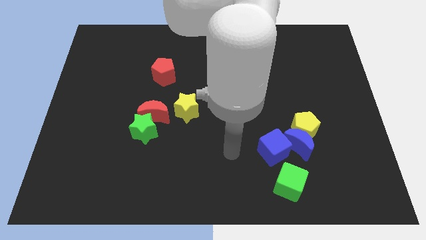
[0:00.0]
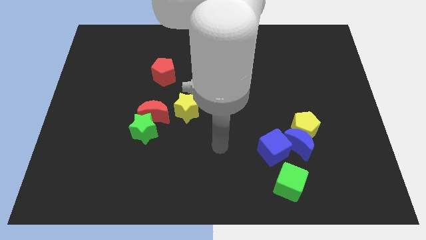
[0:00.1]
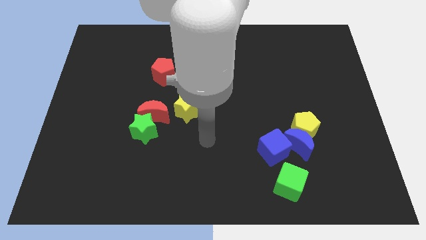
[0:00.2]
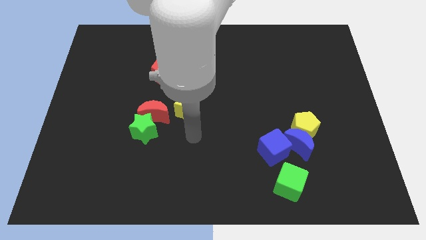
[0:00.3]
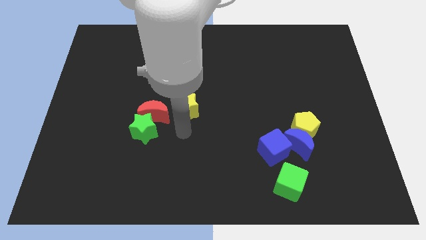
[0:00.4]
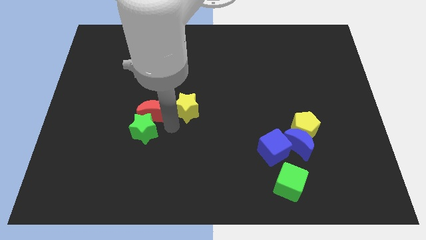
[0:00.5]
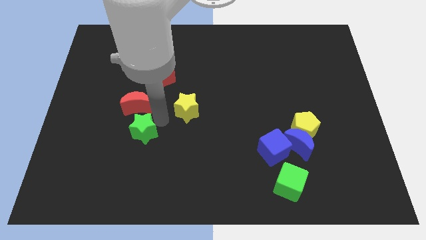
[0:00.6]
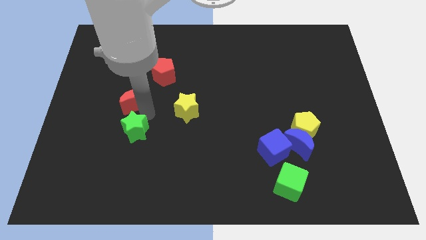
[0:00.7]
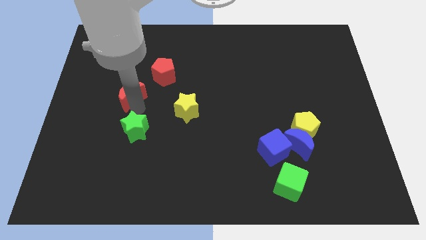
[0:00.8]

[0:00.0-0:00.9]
pull the green star apart from the red moon

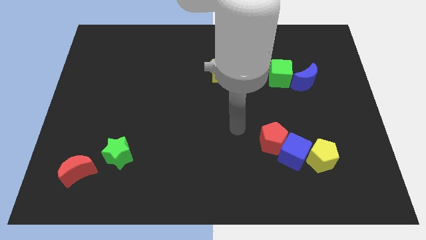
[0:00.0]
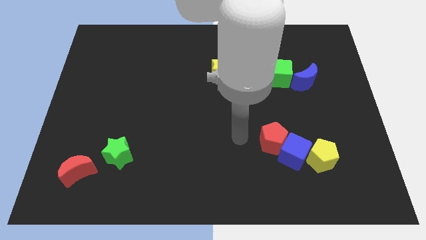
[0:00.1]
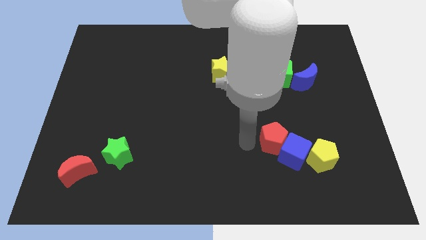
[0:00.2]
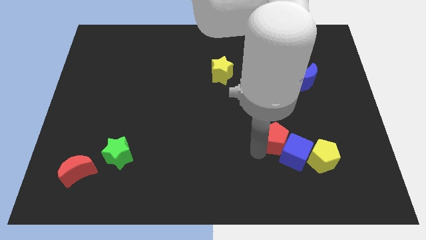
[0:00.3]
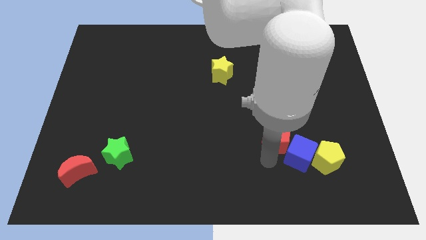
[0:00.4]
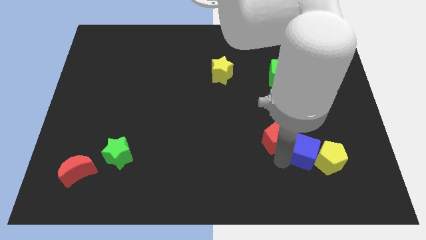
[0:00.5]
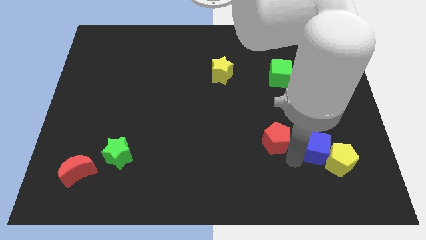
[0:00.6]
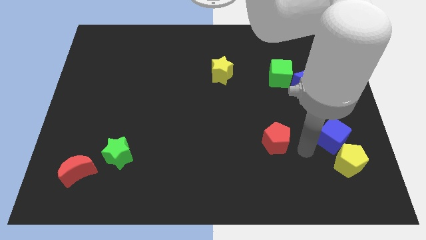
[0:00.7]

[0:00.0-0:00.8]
move the red pentagon away from the blue cube

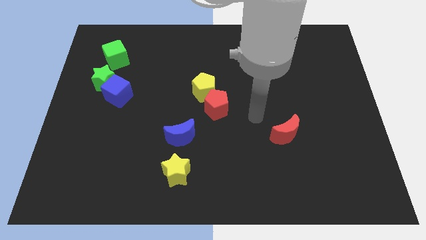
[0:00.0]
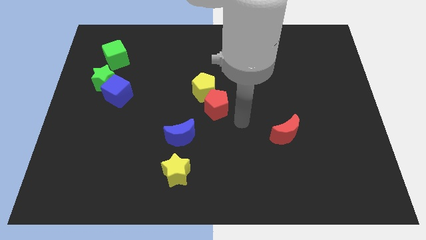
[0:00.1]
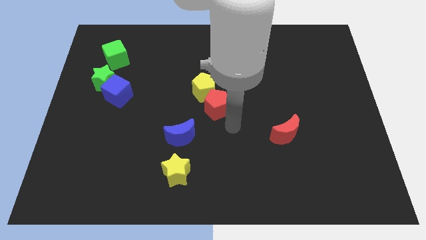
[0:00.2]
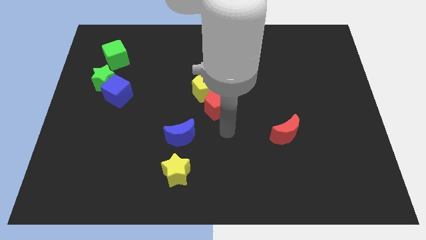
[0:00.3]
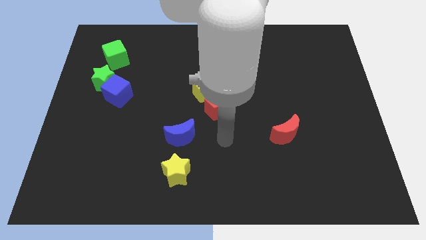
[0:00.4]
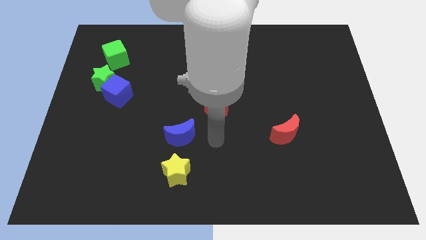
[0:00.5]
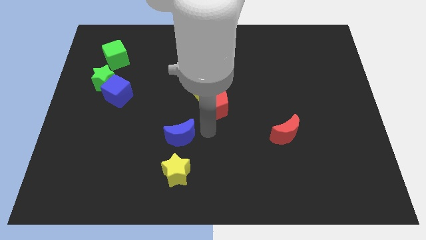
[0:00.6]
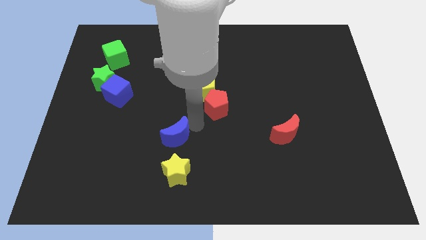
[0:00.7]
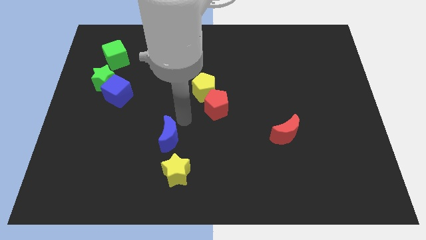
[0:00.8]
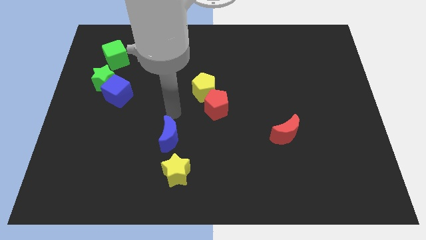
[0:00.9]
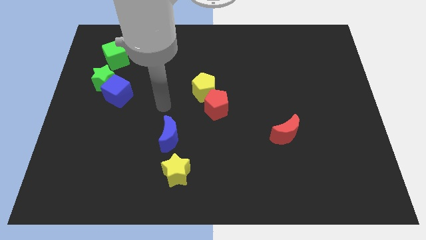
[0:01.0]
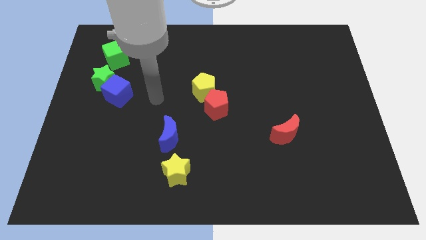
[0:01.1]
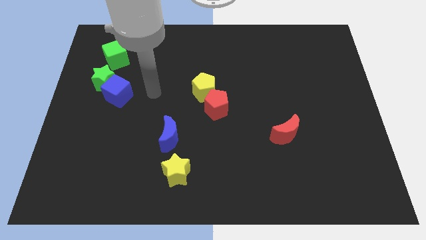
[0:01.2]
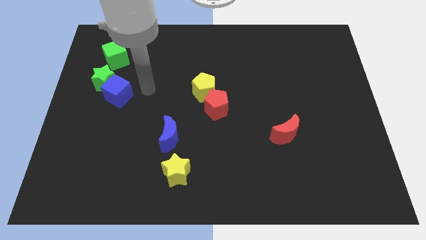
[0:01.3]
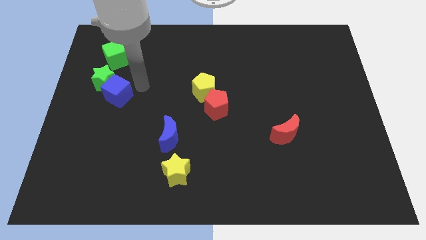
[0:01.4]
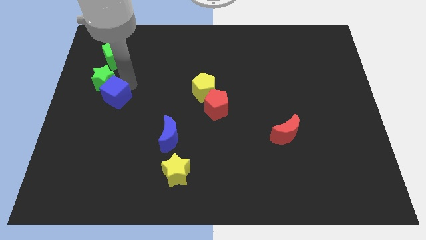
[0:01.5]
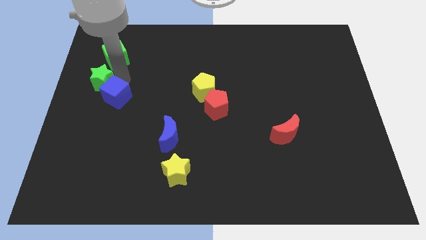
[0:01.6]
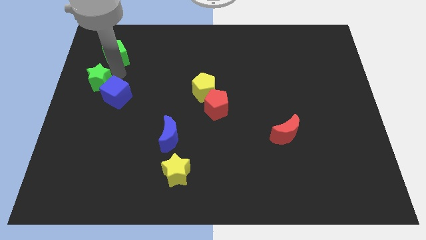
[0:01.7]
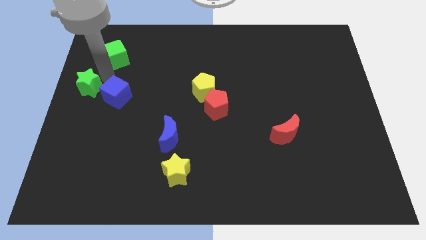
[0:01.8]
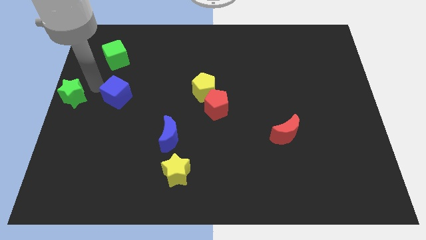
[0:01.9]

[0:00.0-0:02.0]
move the blue cube away from the green star

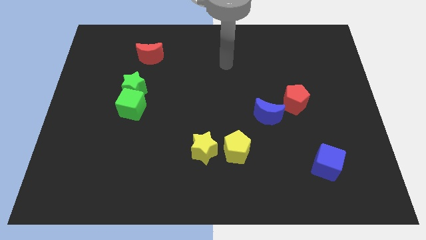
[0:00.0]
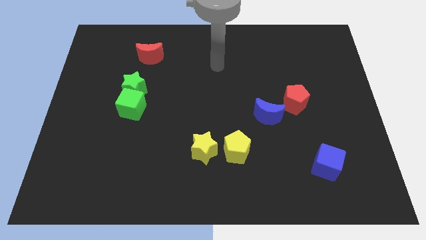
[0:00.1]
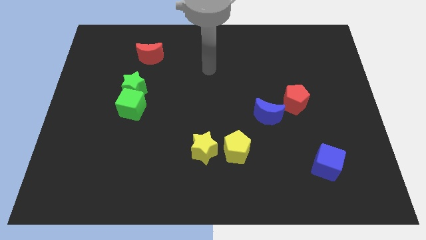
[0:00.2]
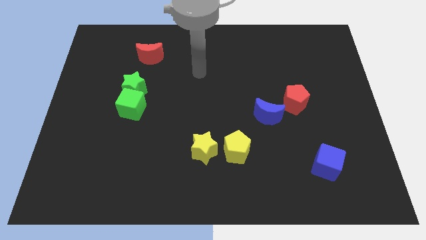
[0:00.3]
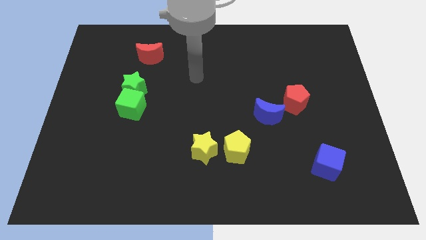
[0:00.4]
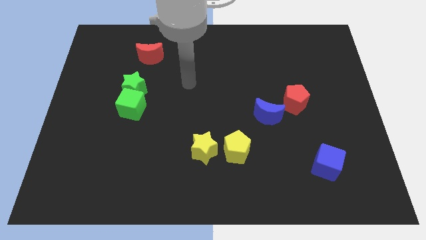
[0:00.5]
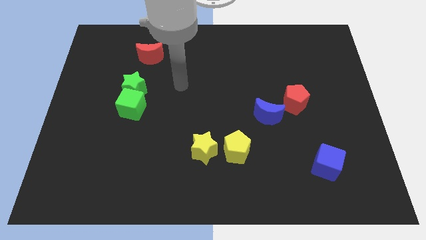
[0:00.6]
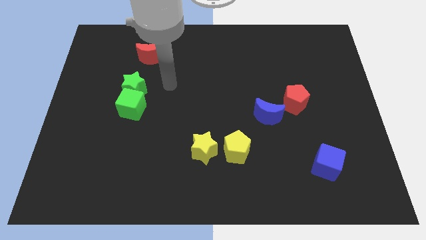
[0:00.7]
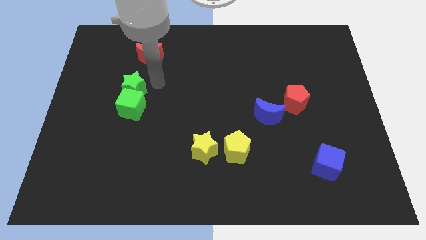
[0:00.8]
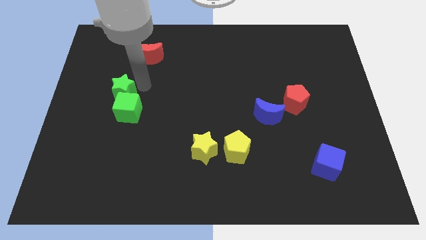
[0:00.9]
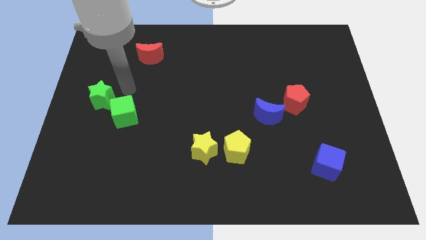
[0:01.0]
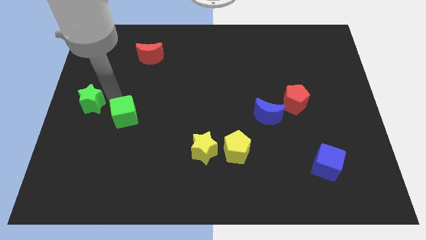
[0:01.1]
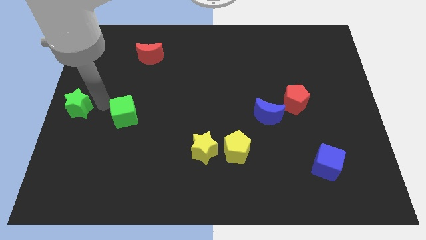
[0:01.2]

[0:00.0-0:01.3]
separate the green cube from the green star

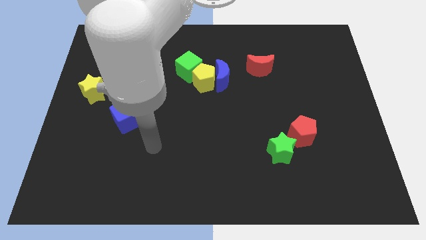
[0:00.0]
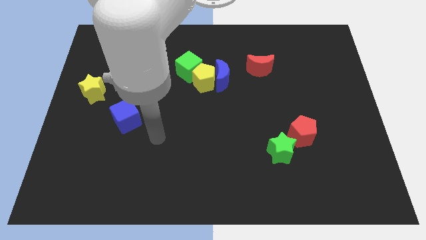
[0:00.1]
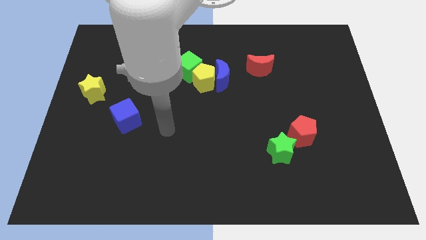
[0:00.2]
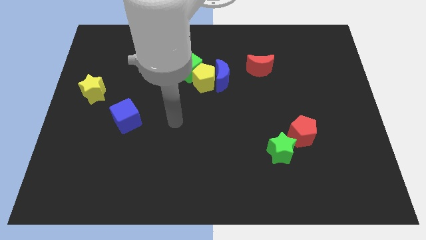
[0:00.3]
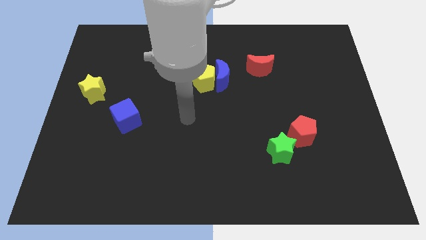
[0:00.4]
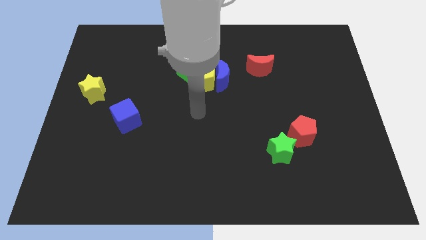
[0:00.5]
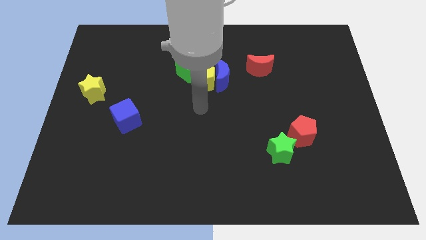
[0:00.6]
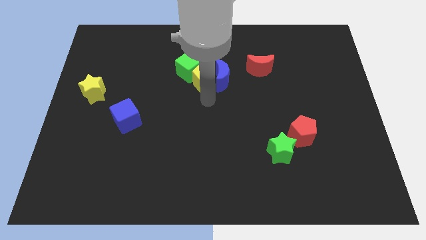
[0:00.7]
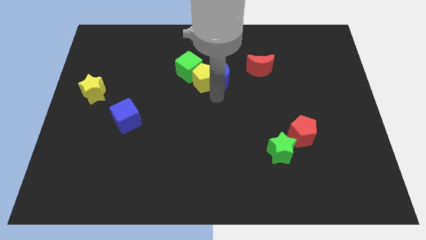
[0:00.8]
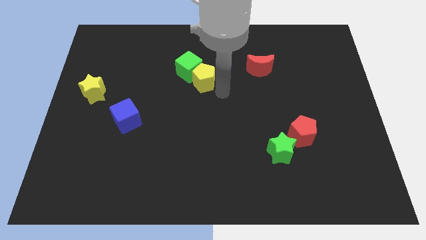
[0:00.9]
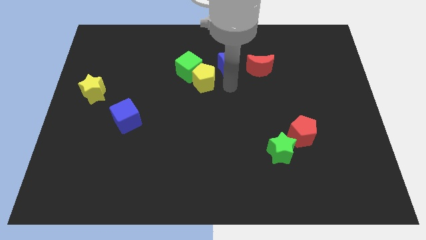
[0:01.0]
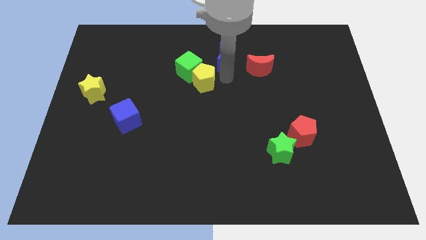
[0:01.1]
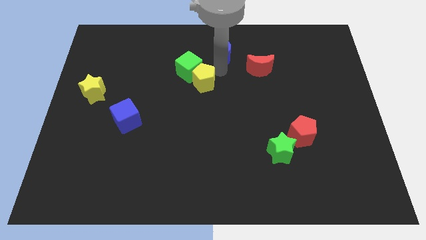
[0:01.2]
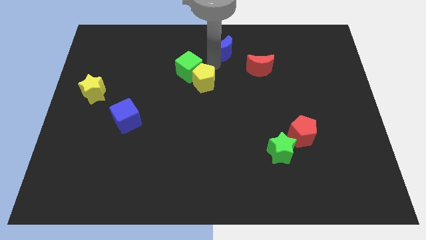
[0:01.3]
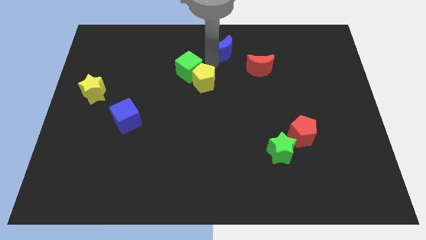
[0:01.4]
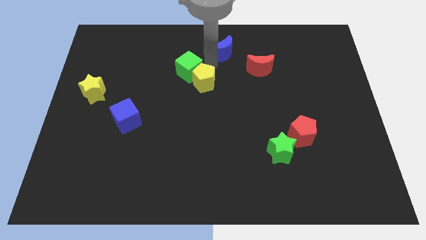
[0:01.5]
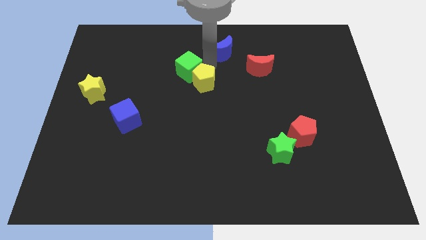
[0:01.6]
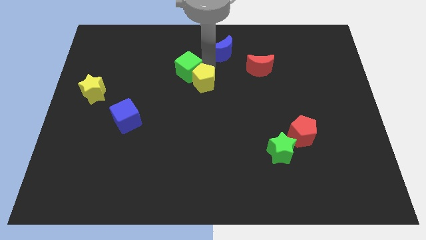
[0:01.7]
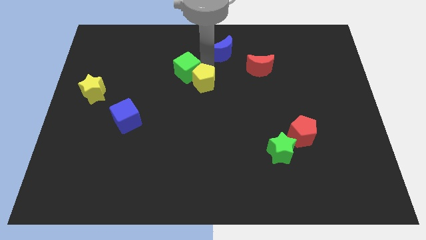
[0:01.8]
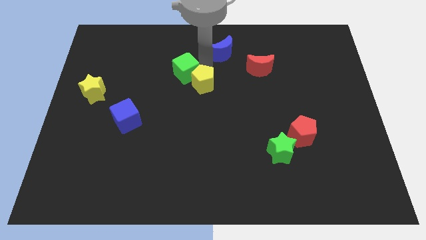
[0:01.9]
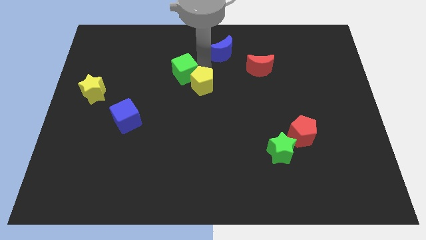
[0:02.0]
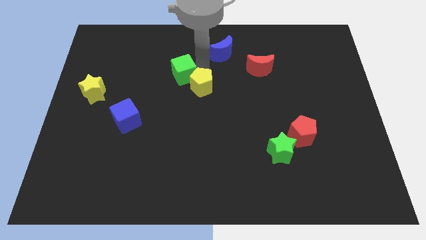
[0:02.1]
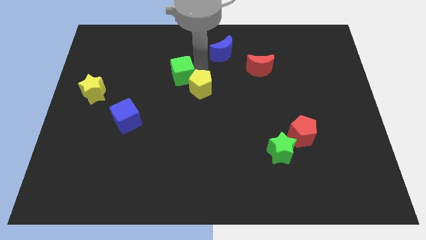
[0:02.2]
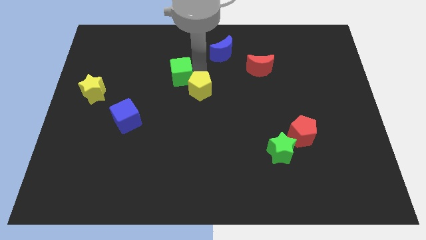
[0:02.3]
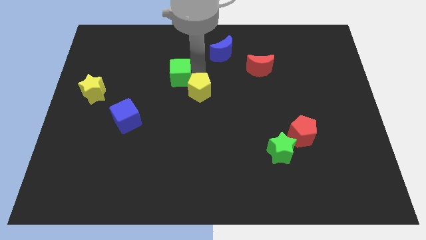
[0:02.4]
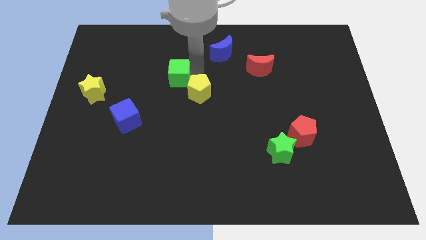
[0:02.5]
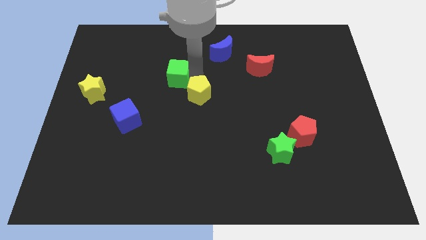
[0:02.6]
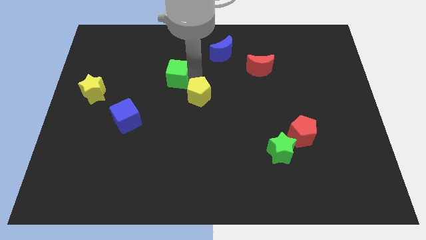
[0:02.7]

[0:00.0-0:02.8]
separate the yellow pentagon from the blue moon and green cube

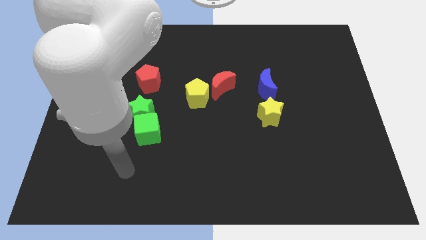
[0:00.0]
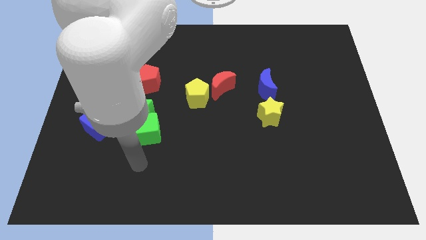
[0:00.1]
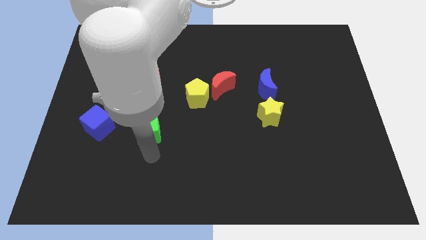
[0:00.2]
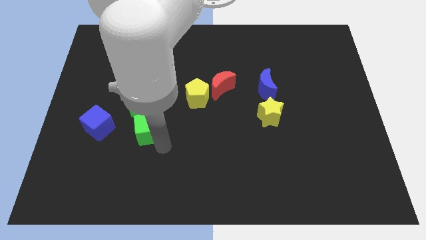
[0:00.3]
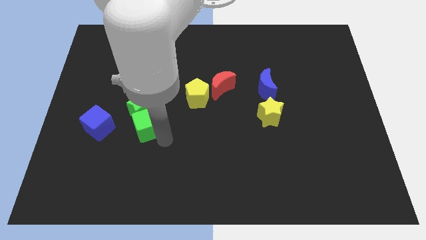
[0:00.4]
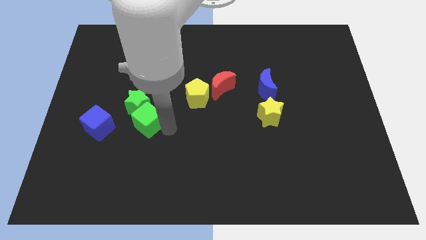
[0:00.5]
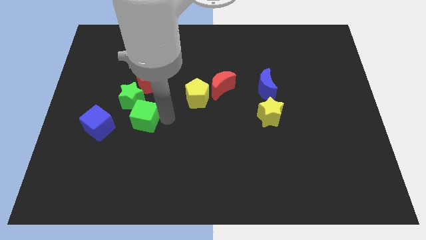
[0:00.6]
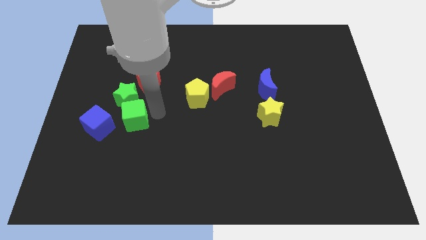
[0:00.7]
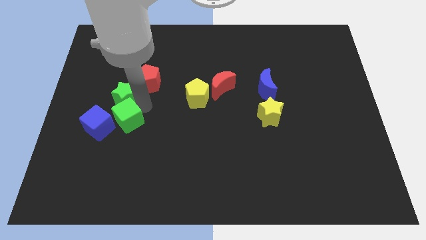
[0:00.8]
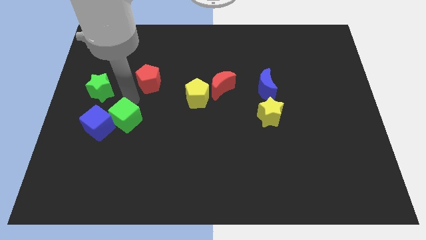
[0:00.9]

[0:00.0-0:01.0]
pull the green cube apart from the green star

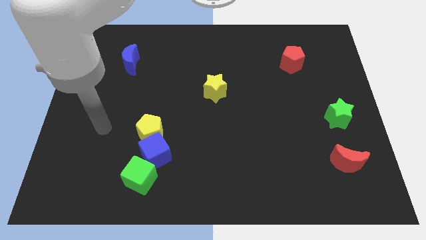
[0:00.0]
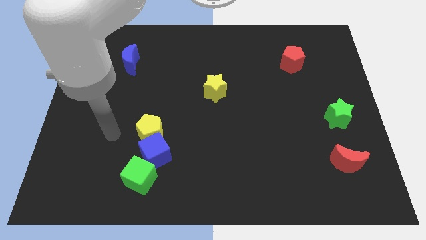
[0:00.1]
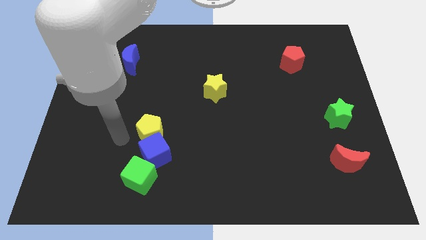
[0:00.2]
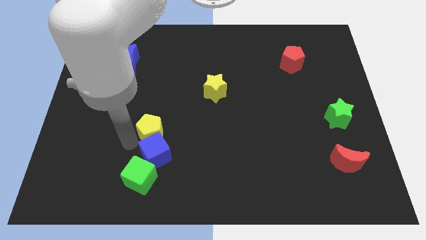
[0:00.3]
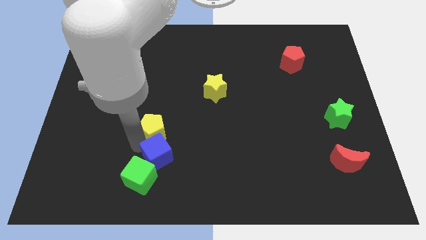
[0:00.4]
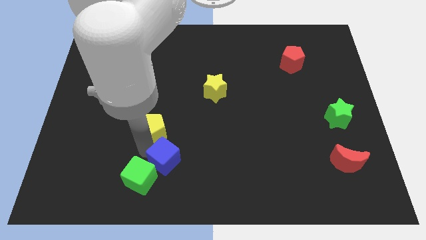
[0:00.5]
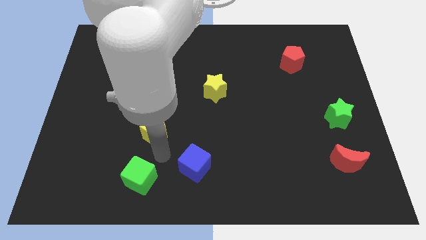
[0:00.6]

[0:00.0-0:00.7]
pull the yellow pentagon apart from the blue cube
